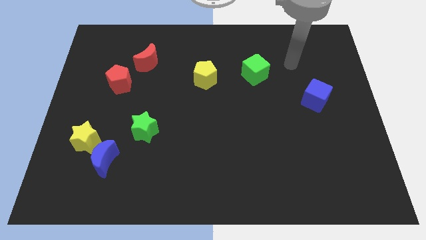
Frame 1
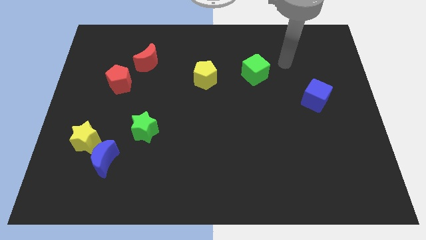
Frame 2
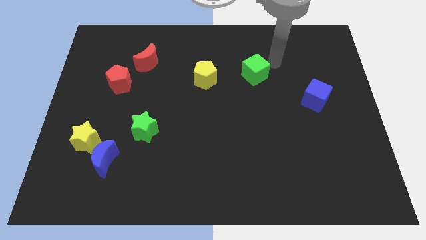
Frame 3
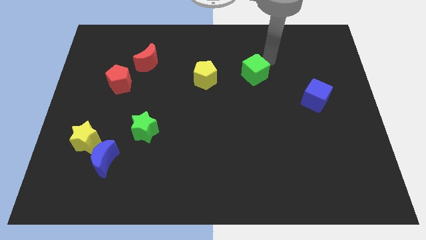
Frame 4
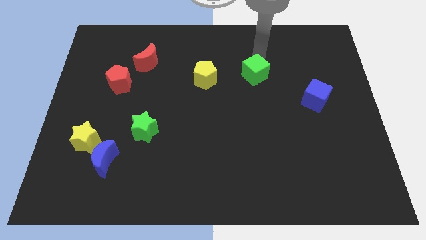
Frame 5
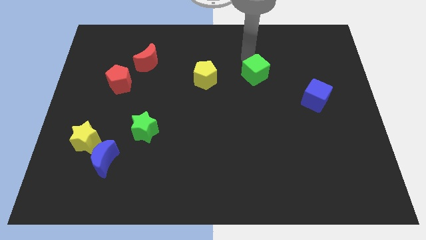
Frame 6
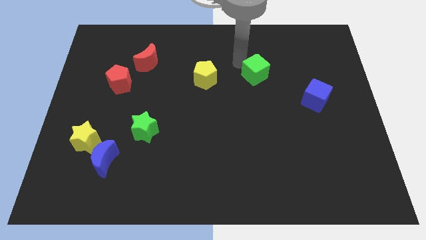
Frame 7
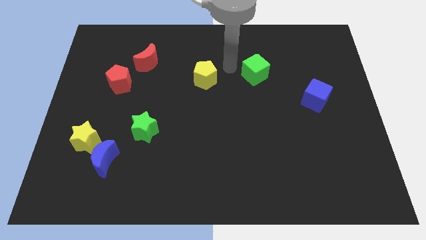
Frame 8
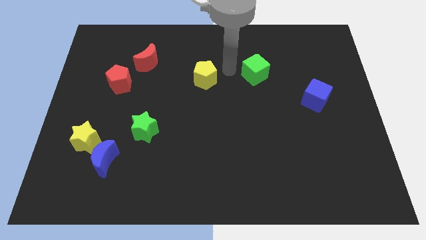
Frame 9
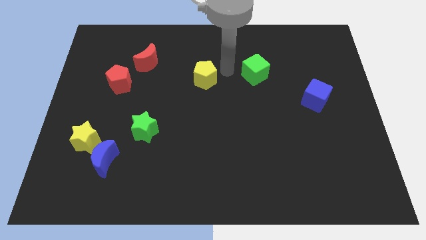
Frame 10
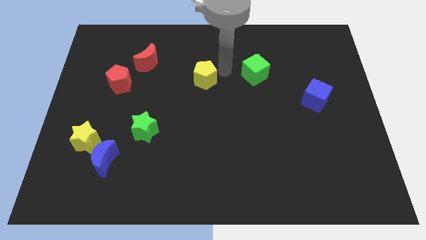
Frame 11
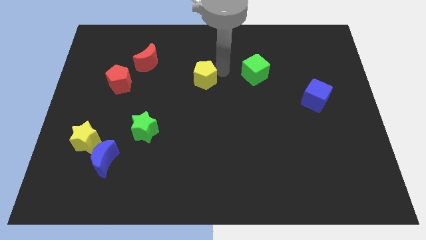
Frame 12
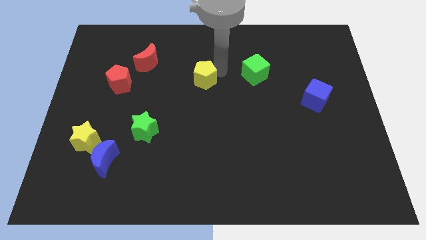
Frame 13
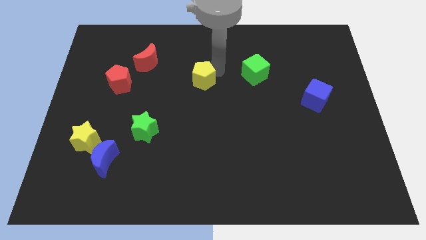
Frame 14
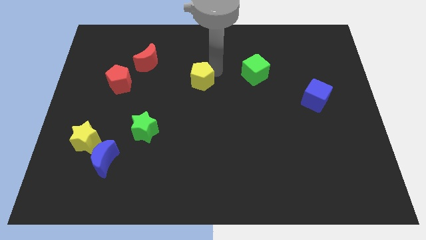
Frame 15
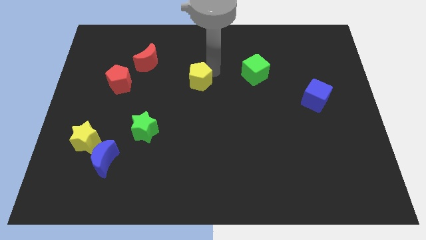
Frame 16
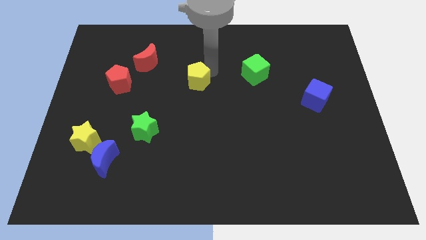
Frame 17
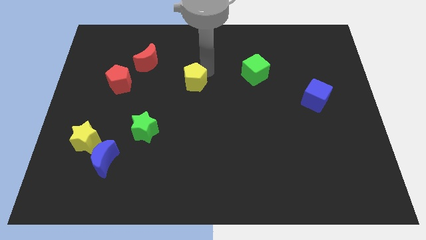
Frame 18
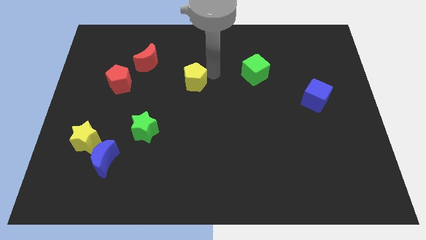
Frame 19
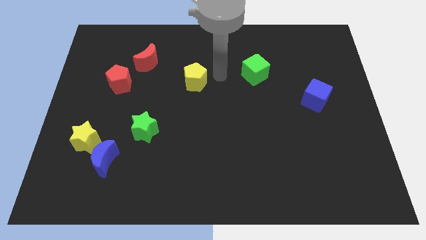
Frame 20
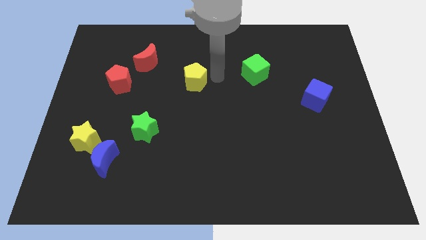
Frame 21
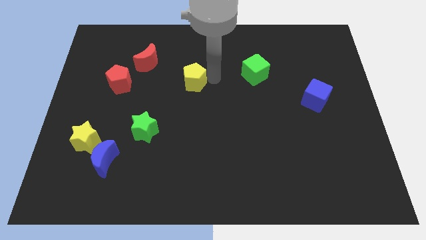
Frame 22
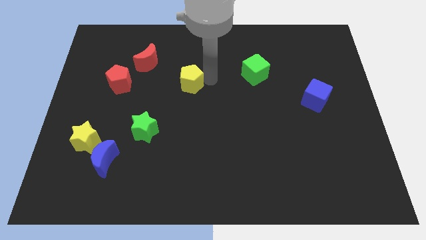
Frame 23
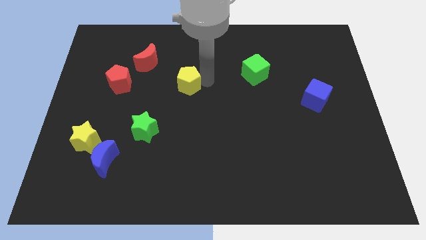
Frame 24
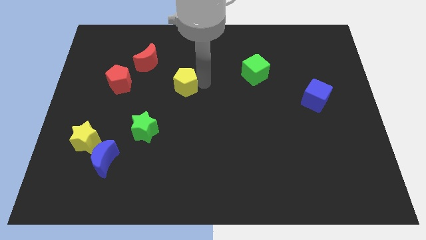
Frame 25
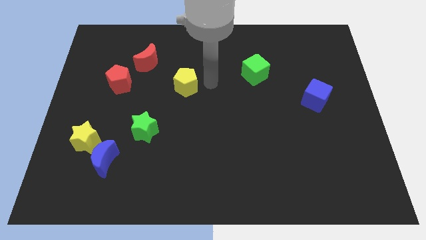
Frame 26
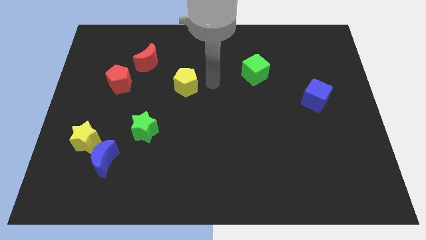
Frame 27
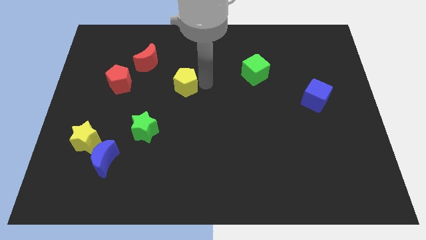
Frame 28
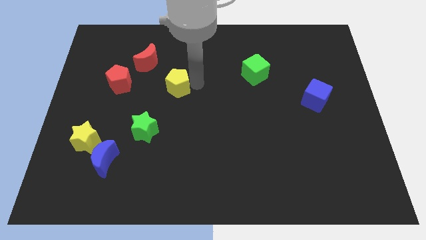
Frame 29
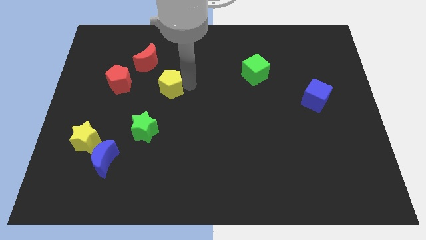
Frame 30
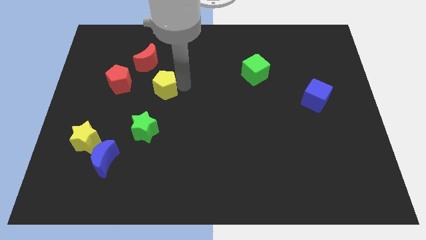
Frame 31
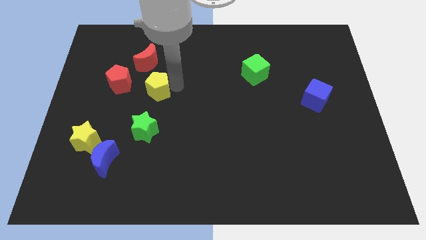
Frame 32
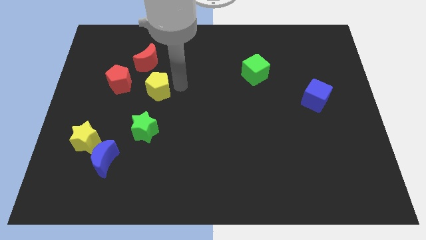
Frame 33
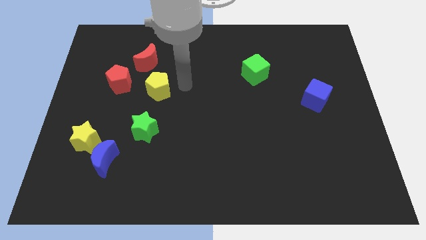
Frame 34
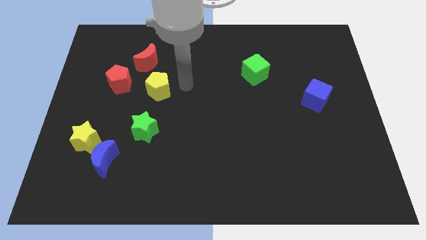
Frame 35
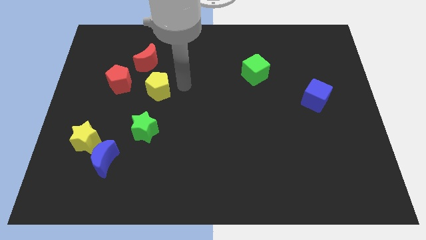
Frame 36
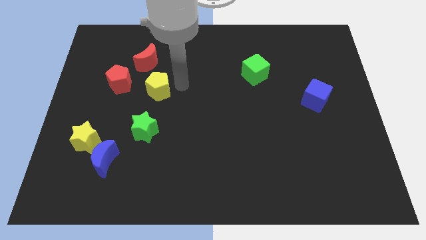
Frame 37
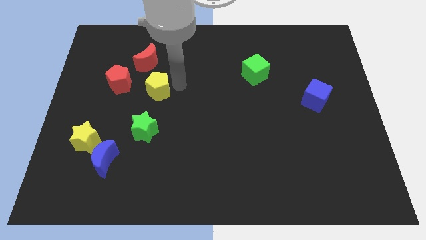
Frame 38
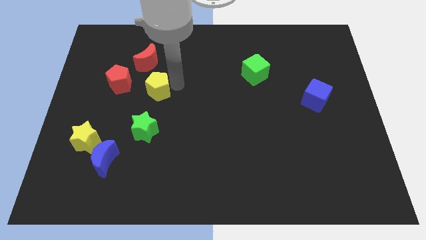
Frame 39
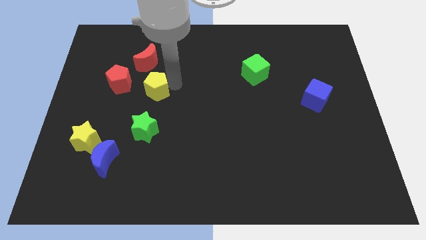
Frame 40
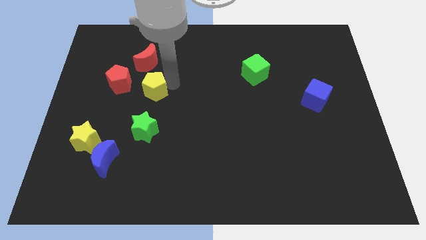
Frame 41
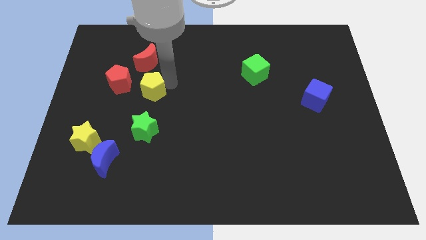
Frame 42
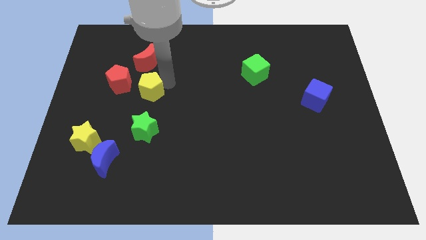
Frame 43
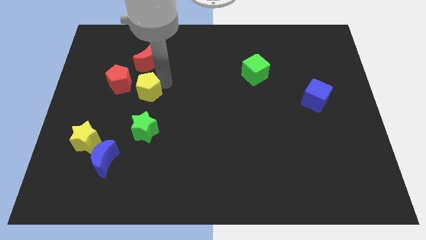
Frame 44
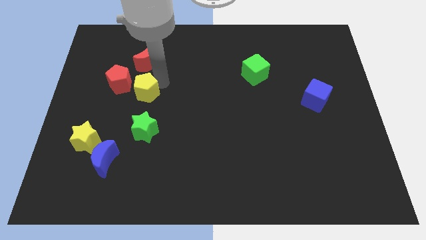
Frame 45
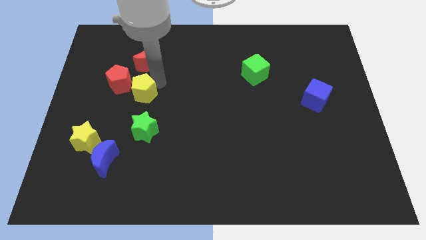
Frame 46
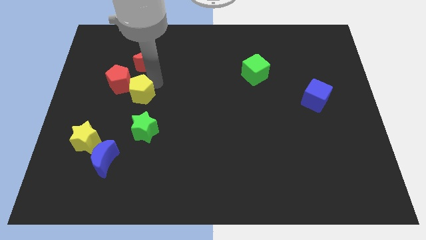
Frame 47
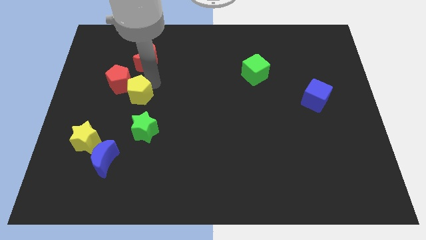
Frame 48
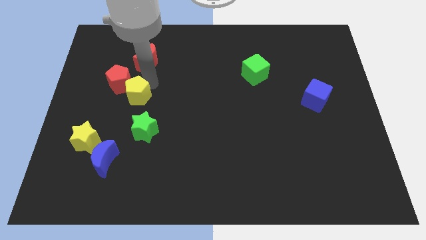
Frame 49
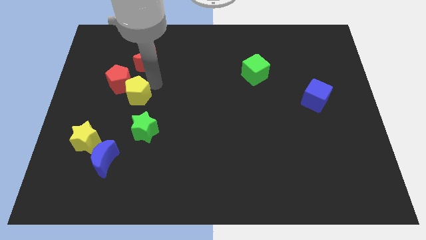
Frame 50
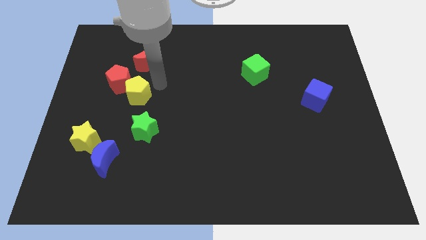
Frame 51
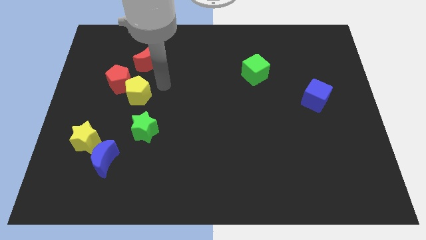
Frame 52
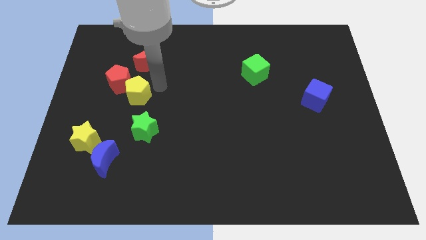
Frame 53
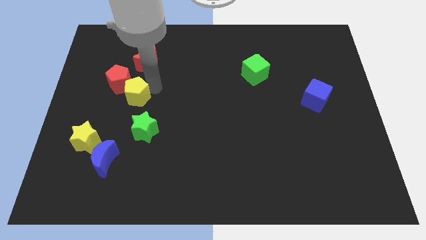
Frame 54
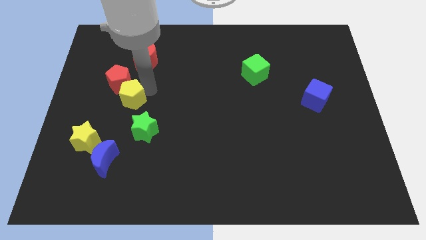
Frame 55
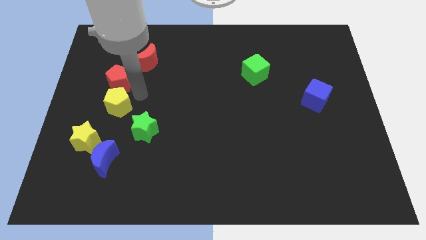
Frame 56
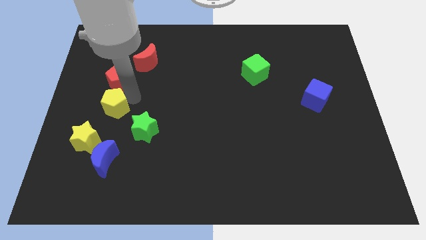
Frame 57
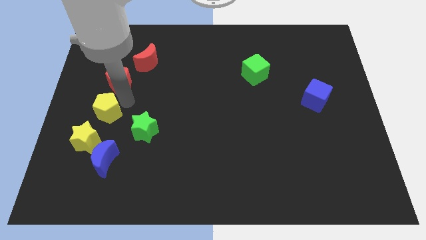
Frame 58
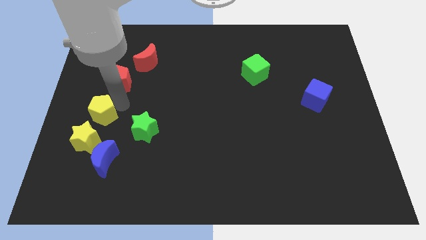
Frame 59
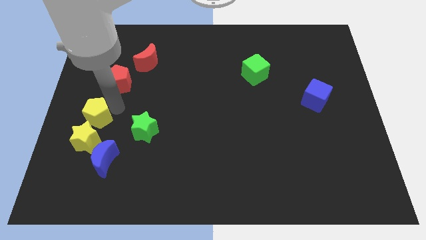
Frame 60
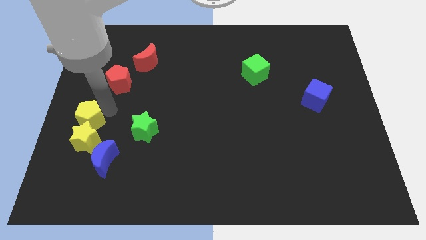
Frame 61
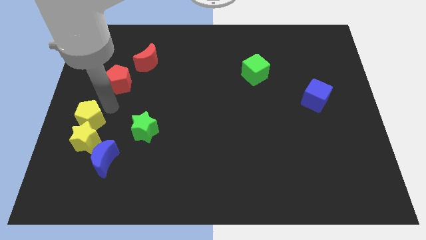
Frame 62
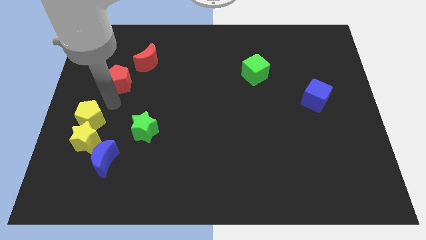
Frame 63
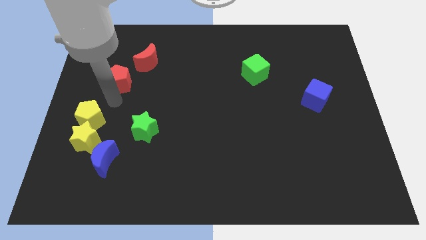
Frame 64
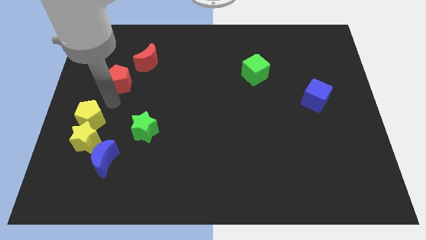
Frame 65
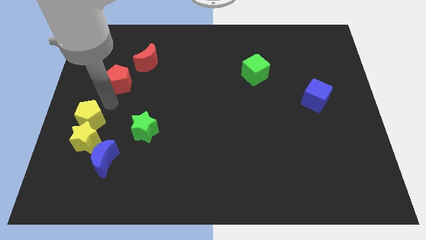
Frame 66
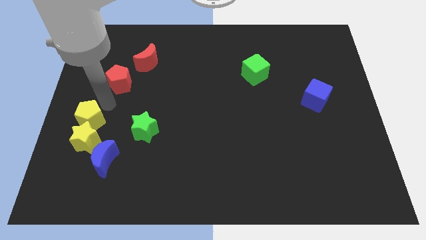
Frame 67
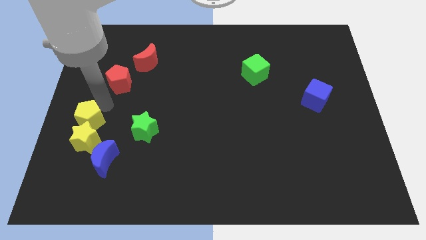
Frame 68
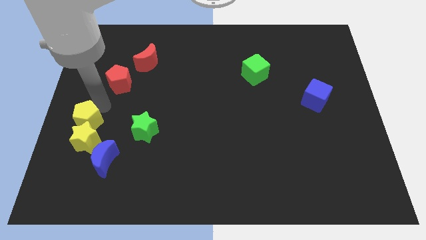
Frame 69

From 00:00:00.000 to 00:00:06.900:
slide the yellow pentagon diagonally up and to the left of the blue moon
